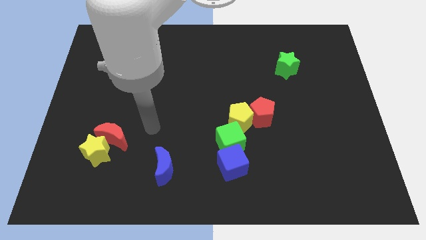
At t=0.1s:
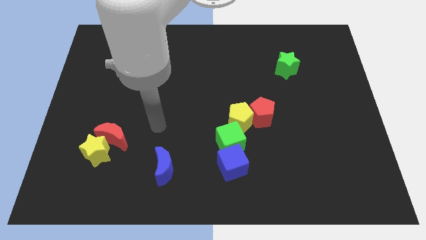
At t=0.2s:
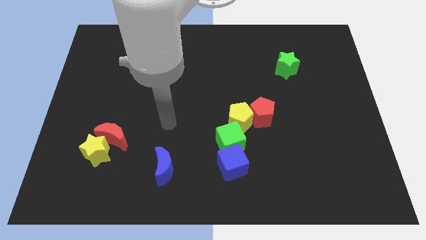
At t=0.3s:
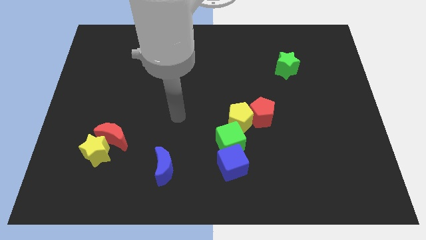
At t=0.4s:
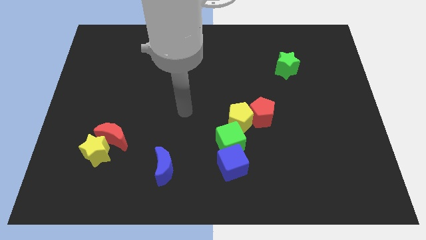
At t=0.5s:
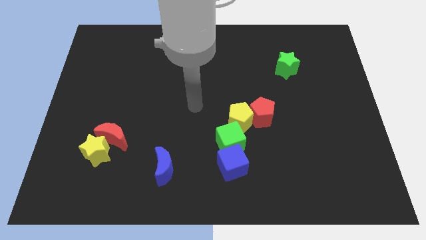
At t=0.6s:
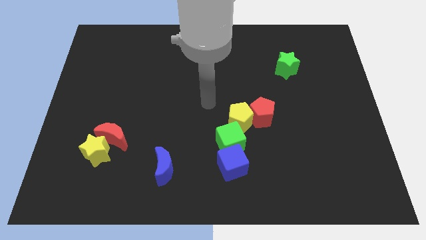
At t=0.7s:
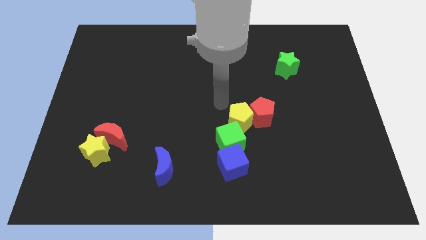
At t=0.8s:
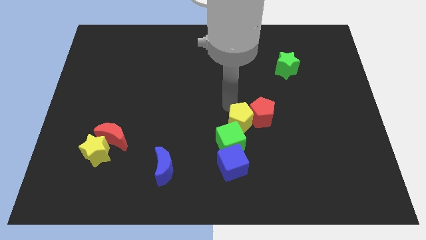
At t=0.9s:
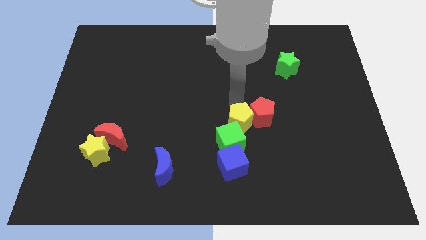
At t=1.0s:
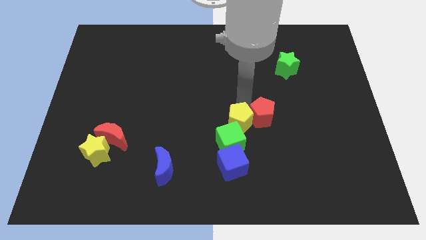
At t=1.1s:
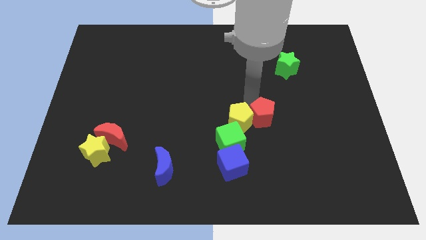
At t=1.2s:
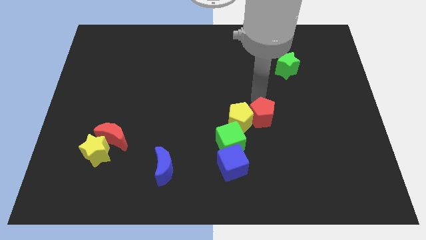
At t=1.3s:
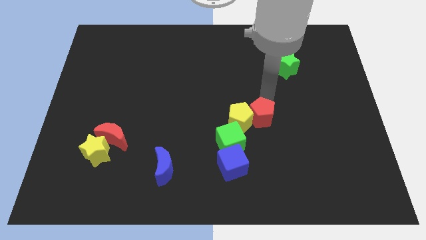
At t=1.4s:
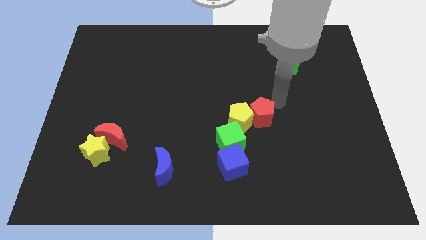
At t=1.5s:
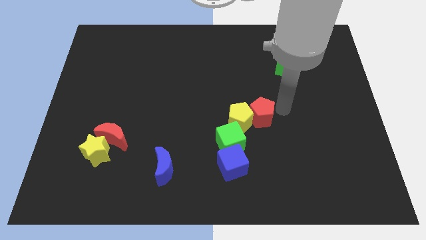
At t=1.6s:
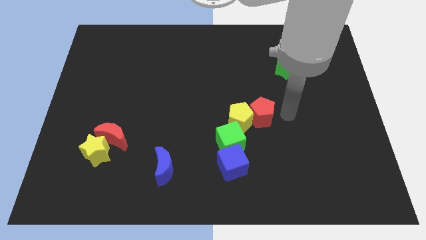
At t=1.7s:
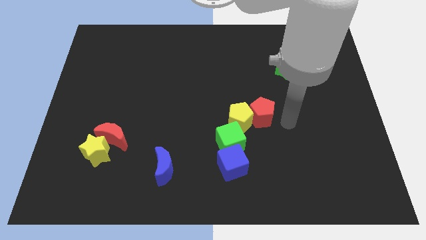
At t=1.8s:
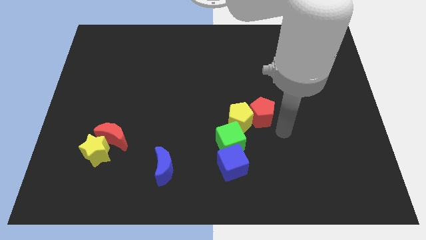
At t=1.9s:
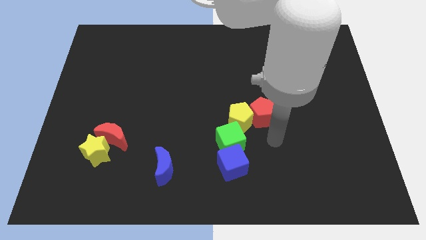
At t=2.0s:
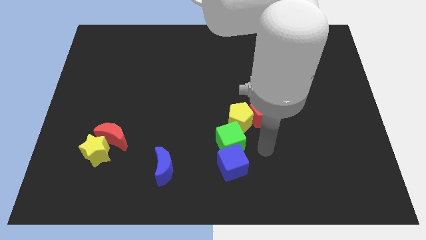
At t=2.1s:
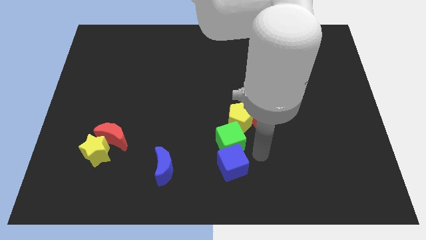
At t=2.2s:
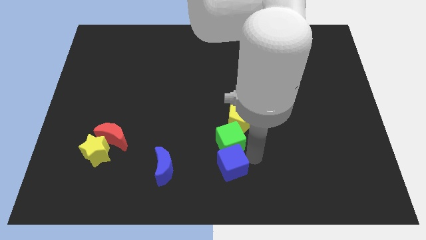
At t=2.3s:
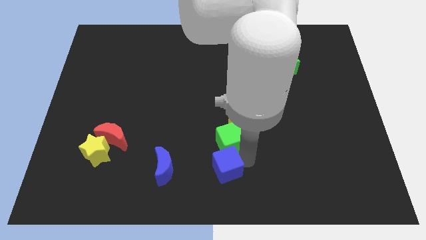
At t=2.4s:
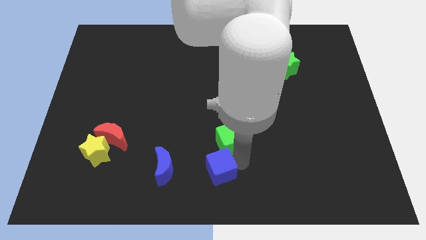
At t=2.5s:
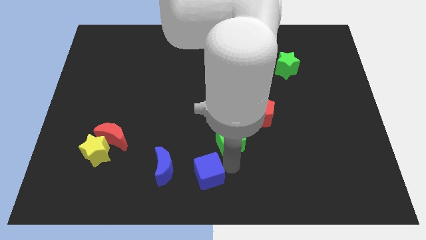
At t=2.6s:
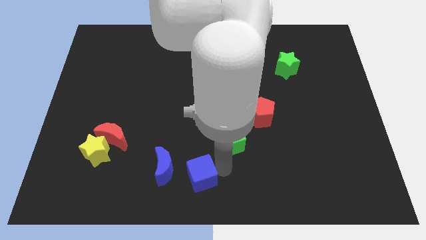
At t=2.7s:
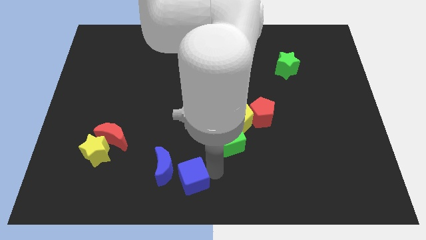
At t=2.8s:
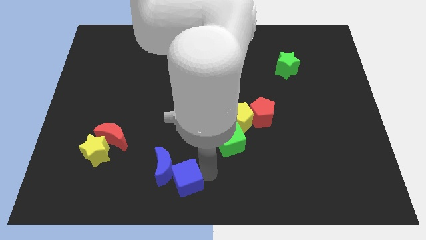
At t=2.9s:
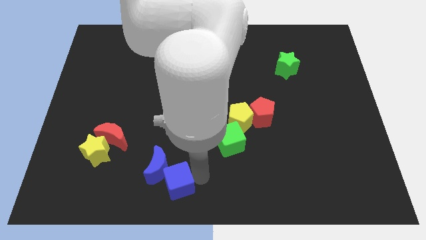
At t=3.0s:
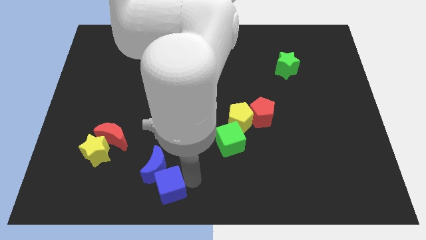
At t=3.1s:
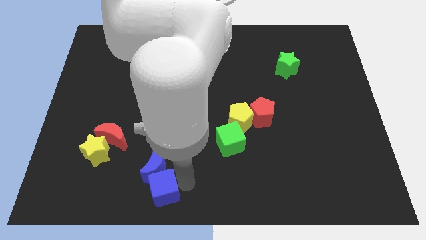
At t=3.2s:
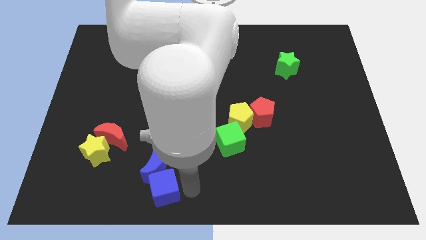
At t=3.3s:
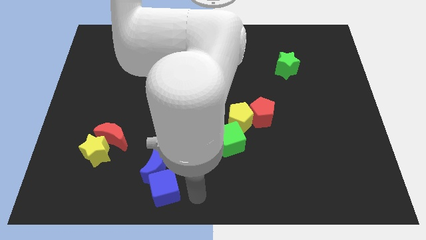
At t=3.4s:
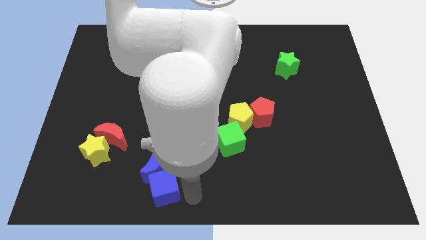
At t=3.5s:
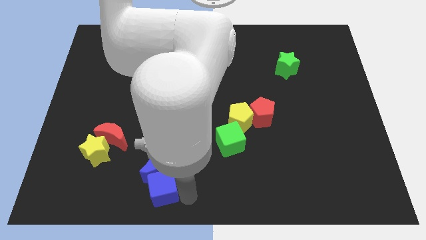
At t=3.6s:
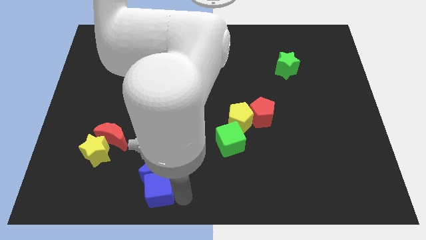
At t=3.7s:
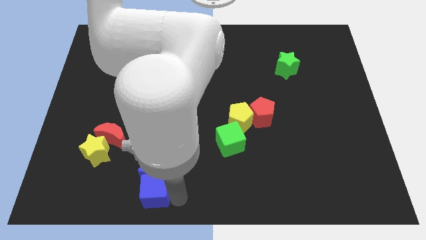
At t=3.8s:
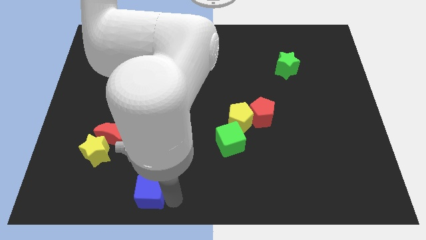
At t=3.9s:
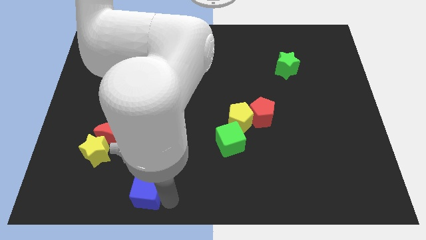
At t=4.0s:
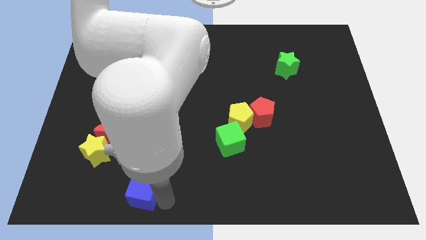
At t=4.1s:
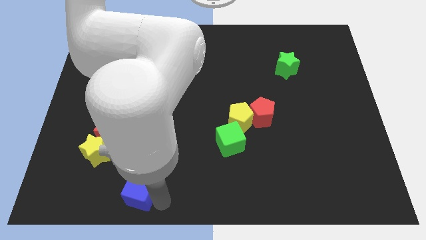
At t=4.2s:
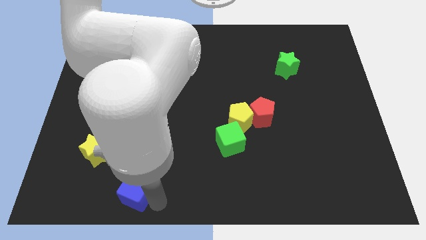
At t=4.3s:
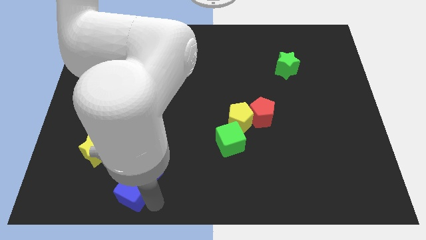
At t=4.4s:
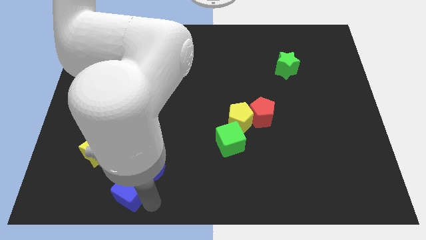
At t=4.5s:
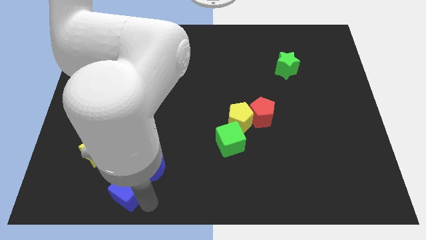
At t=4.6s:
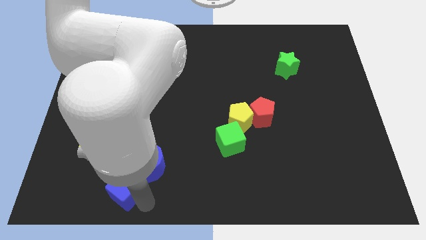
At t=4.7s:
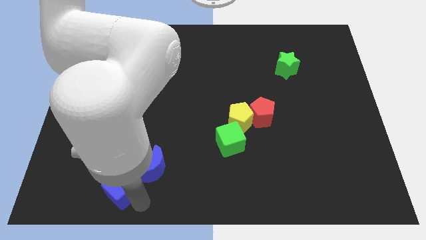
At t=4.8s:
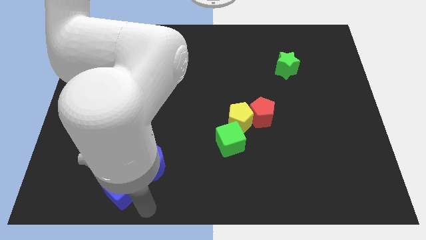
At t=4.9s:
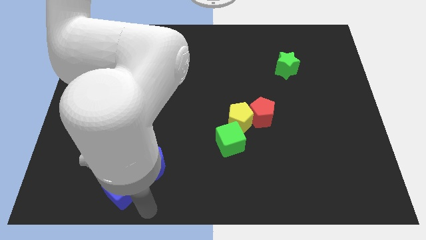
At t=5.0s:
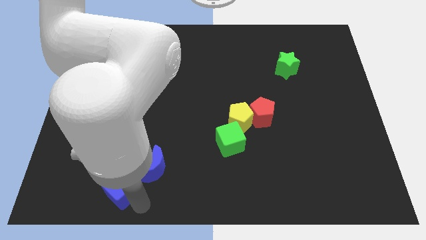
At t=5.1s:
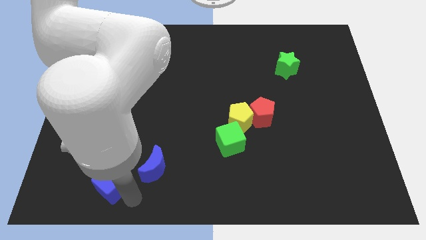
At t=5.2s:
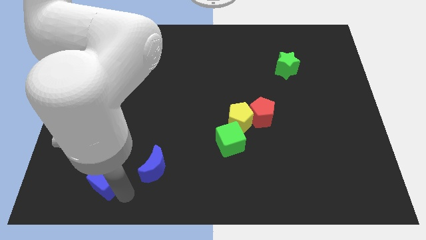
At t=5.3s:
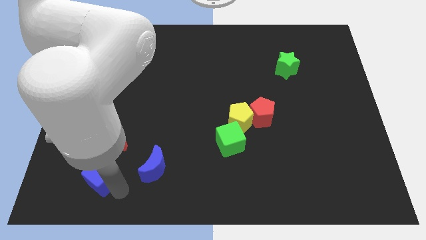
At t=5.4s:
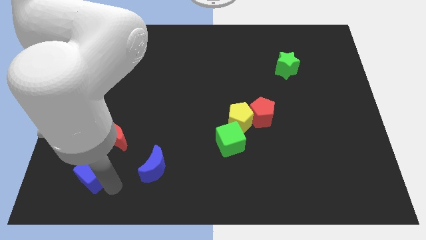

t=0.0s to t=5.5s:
slide the blue cube to the bottom left side of the red moon
